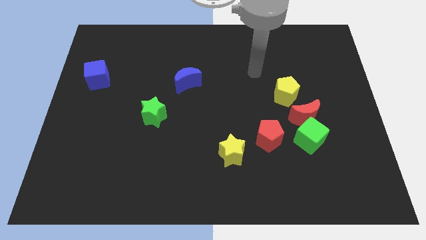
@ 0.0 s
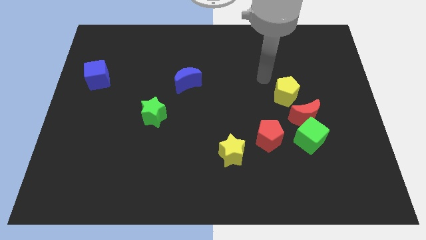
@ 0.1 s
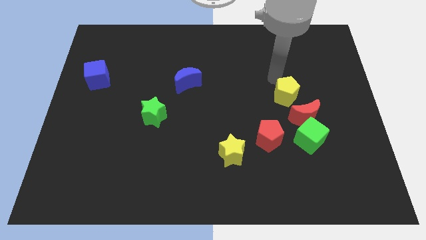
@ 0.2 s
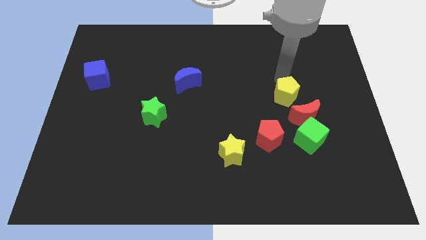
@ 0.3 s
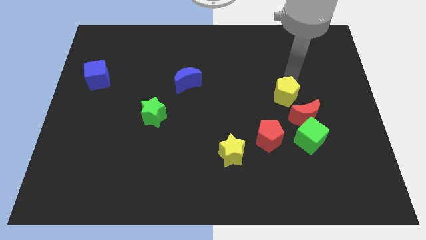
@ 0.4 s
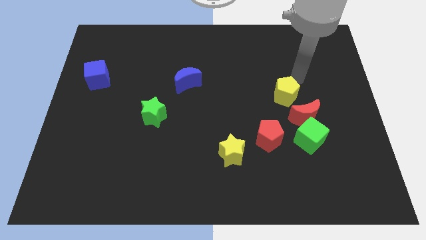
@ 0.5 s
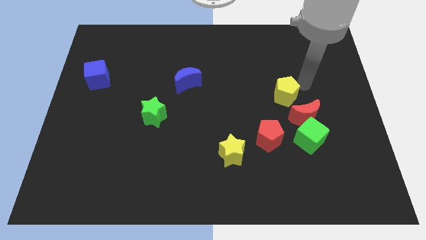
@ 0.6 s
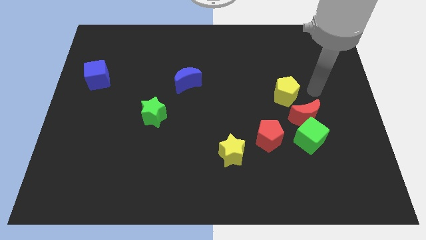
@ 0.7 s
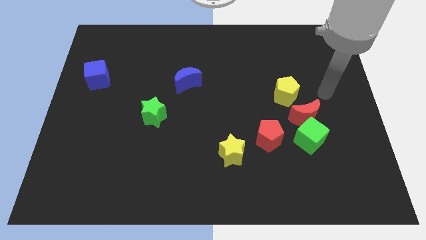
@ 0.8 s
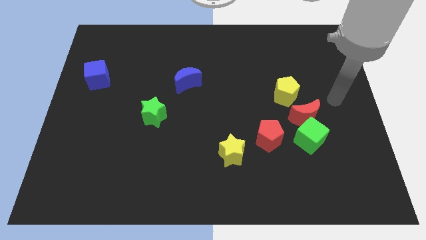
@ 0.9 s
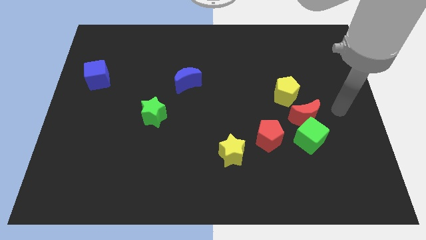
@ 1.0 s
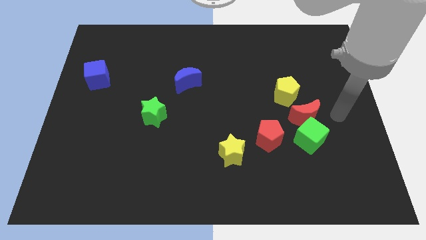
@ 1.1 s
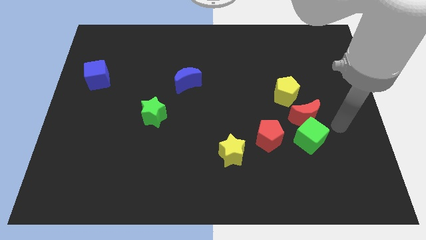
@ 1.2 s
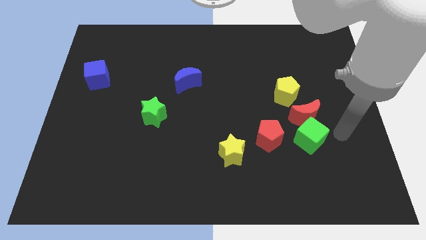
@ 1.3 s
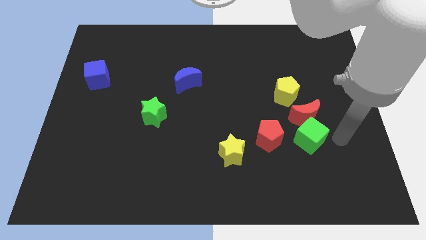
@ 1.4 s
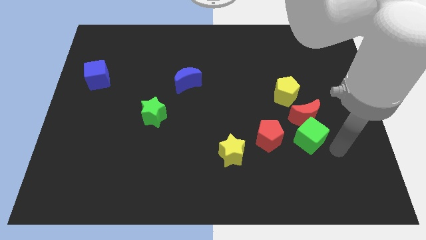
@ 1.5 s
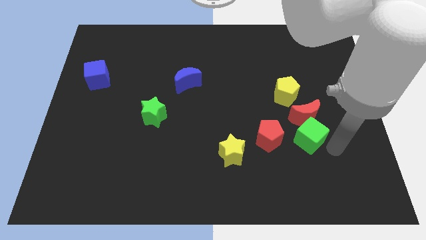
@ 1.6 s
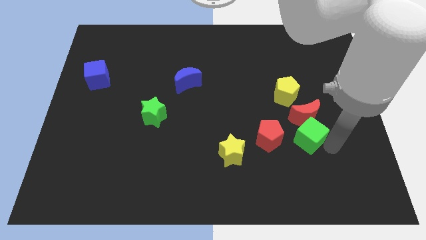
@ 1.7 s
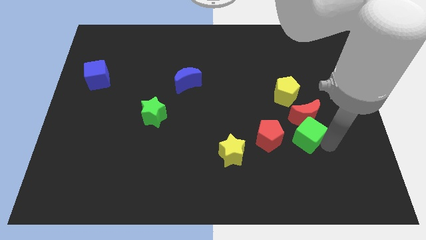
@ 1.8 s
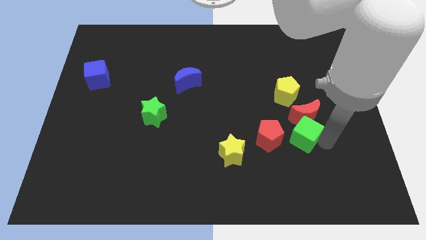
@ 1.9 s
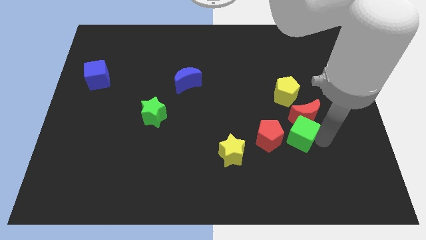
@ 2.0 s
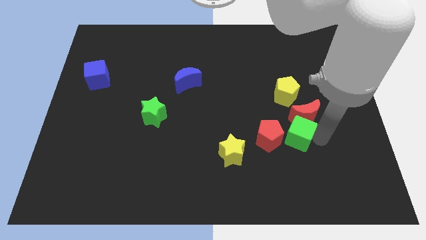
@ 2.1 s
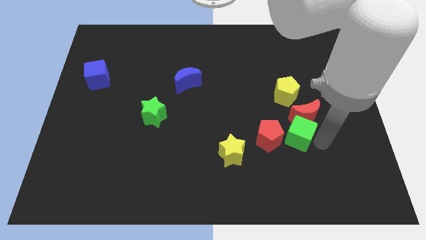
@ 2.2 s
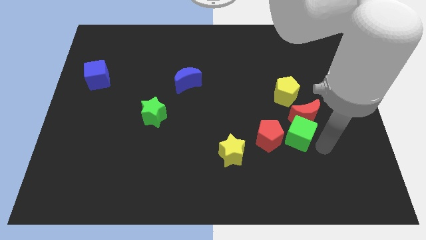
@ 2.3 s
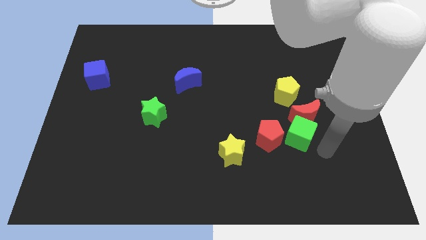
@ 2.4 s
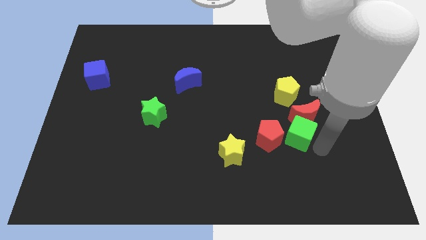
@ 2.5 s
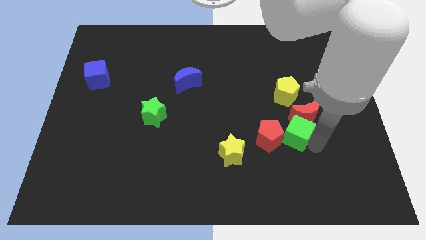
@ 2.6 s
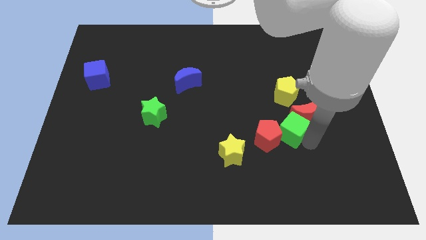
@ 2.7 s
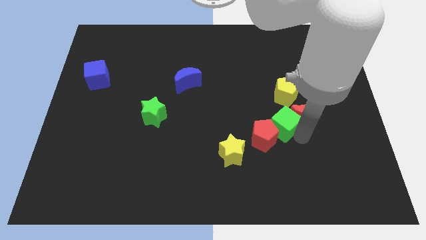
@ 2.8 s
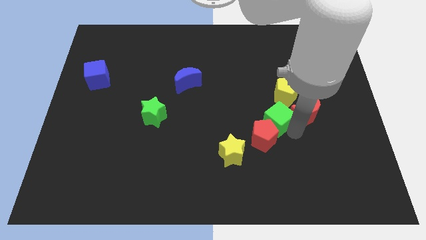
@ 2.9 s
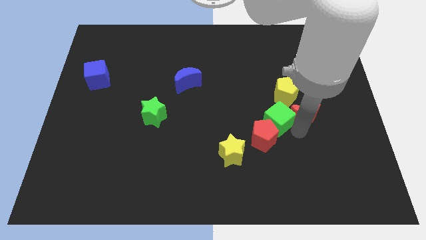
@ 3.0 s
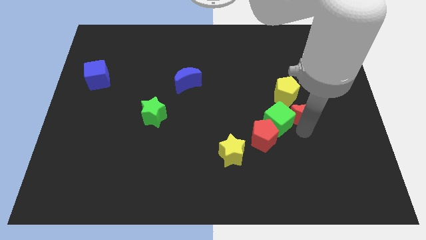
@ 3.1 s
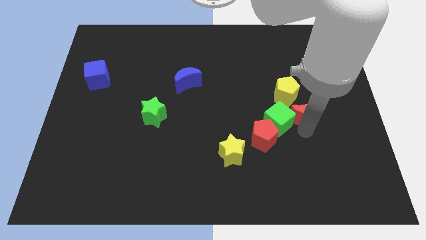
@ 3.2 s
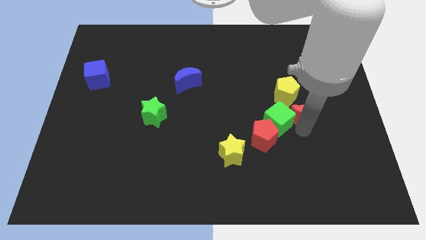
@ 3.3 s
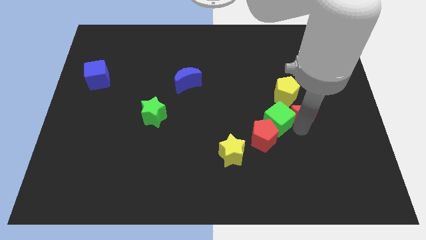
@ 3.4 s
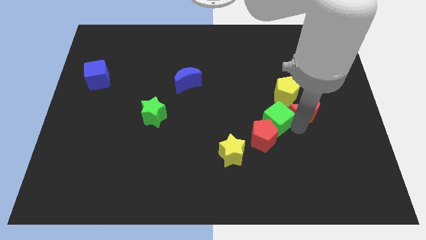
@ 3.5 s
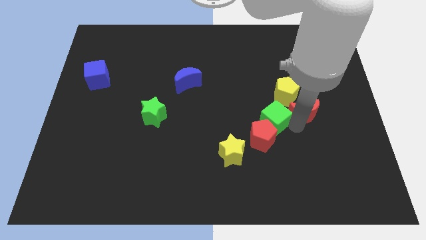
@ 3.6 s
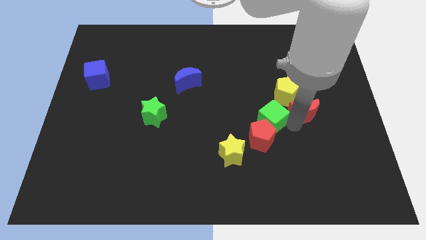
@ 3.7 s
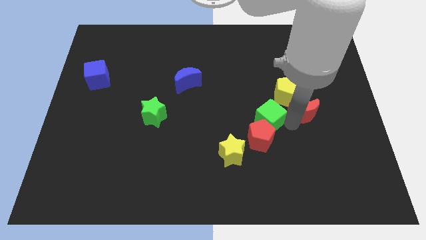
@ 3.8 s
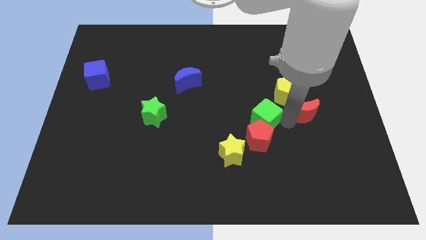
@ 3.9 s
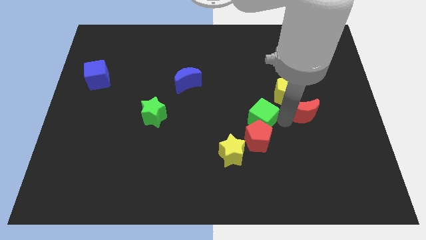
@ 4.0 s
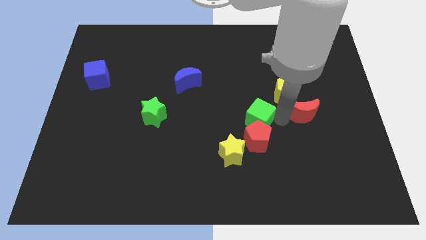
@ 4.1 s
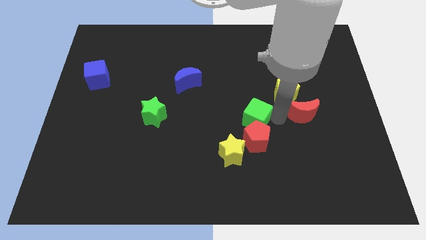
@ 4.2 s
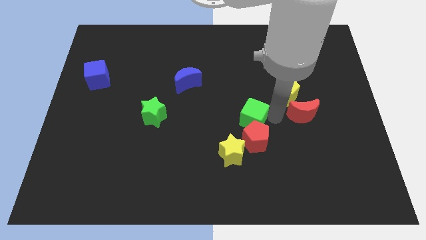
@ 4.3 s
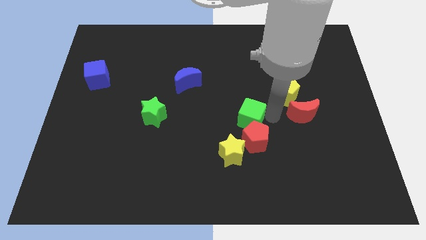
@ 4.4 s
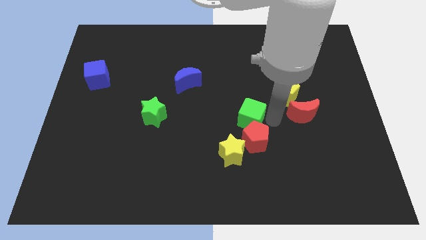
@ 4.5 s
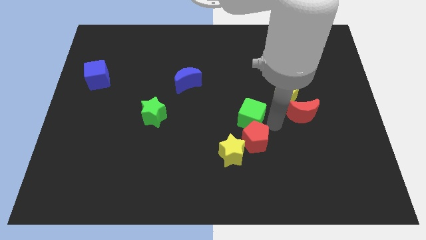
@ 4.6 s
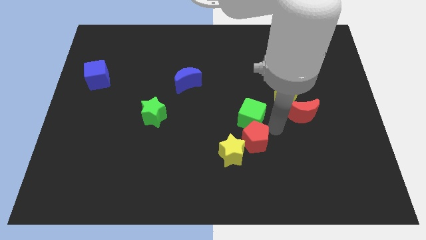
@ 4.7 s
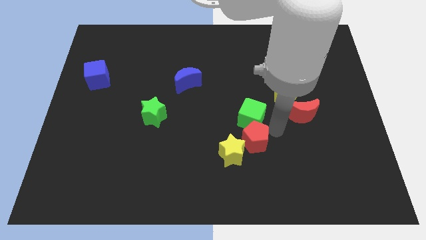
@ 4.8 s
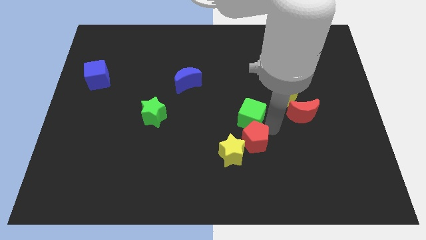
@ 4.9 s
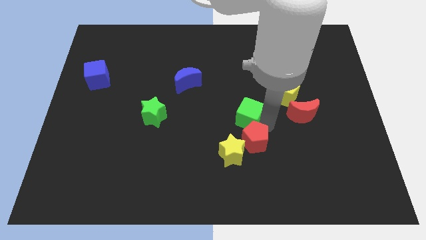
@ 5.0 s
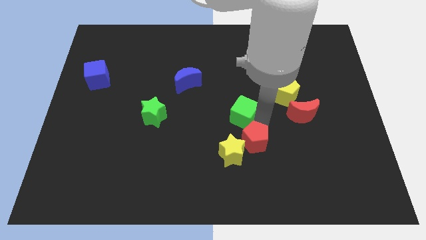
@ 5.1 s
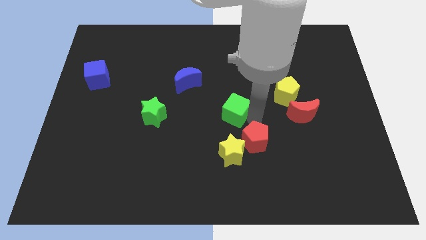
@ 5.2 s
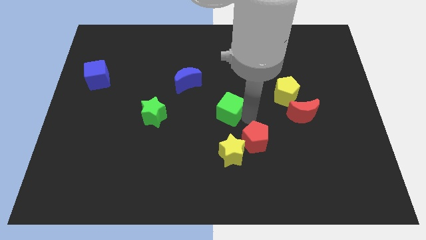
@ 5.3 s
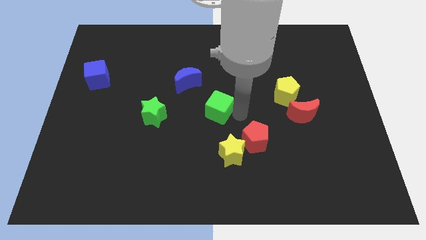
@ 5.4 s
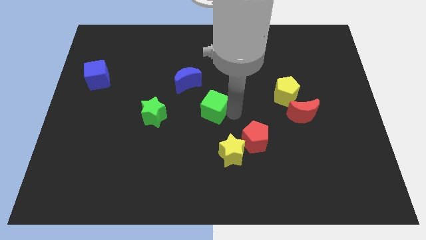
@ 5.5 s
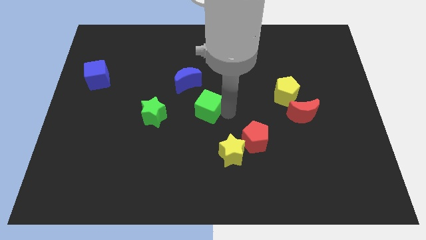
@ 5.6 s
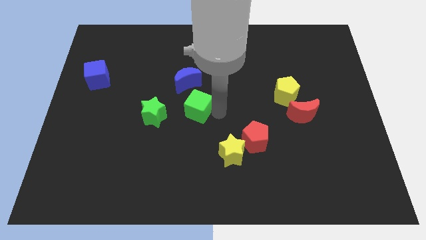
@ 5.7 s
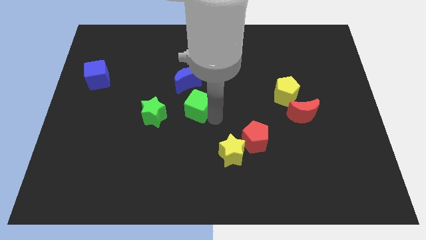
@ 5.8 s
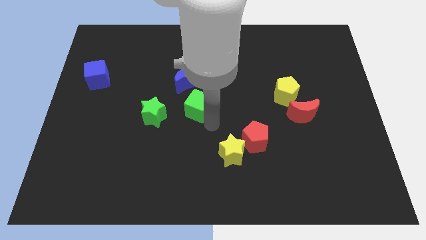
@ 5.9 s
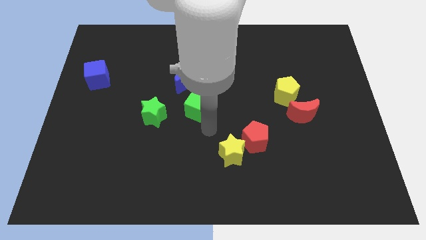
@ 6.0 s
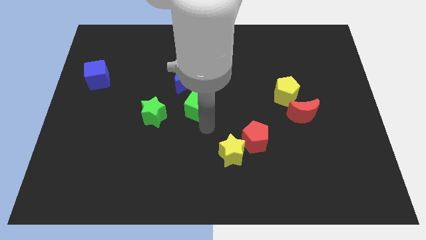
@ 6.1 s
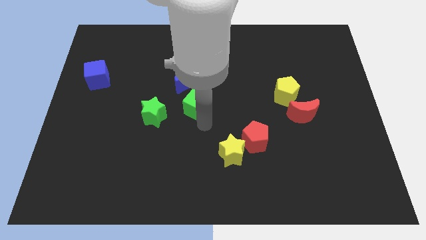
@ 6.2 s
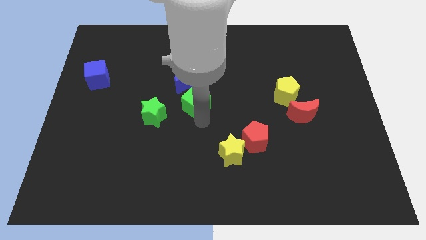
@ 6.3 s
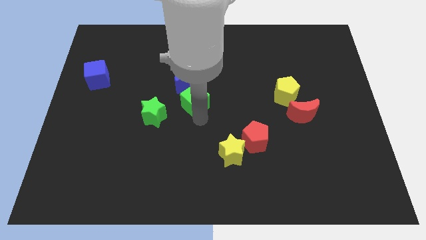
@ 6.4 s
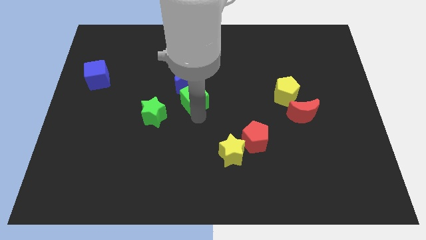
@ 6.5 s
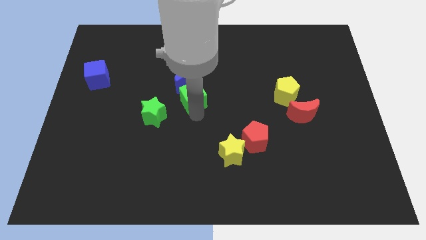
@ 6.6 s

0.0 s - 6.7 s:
move the green cube towards the blue moon
